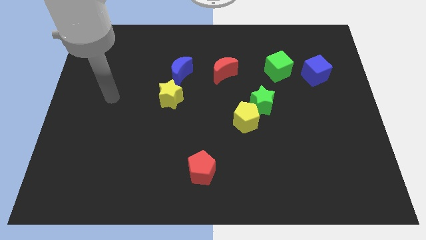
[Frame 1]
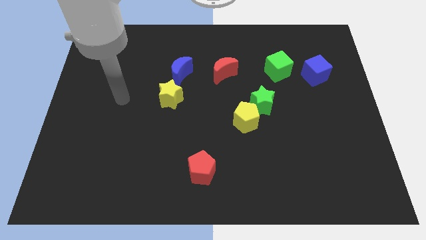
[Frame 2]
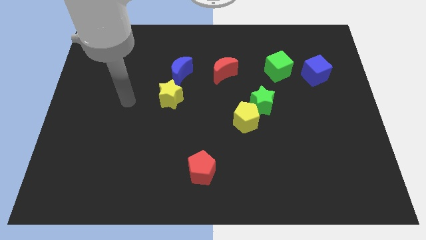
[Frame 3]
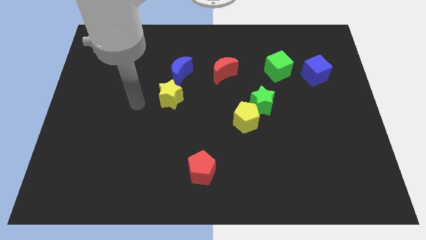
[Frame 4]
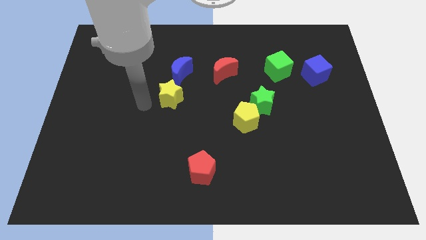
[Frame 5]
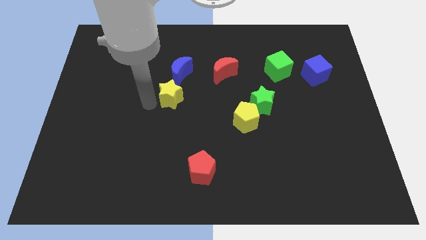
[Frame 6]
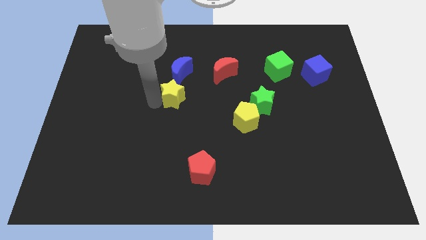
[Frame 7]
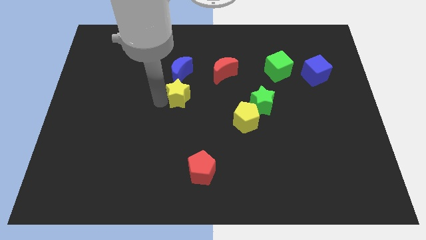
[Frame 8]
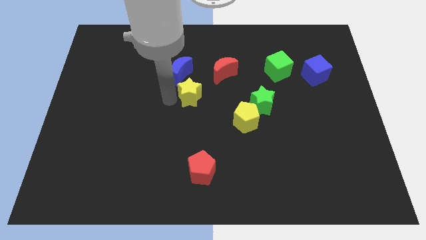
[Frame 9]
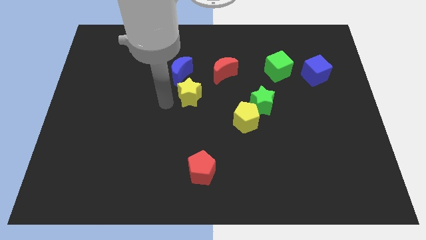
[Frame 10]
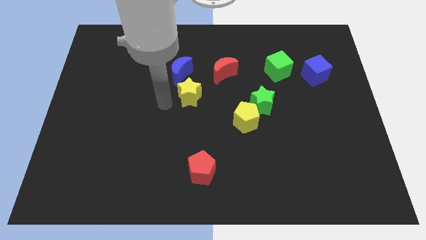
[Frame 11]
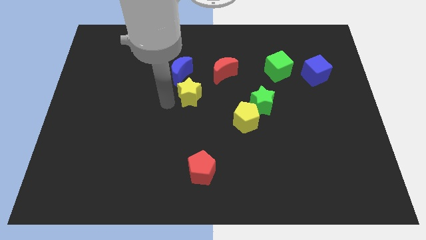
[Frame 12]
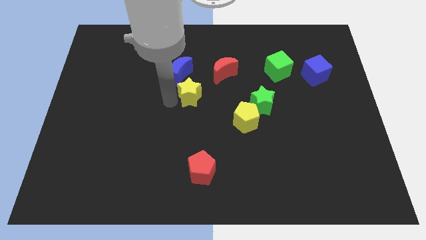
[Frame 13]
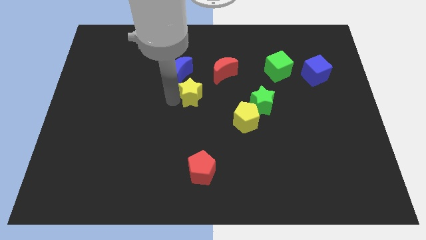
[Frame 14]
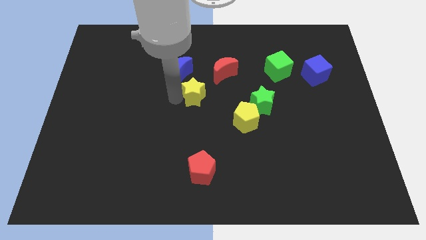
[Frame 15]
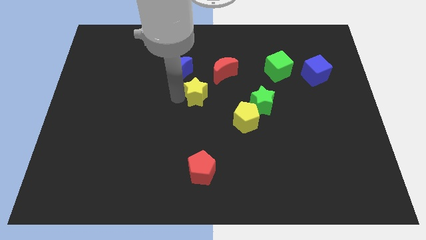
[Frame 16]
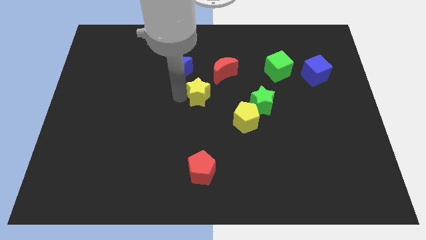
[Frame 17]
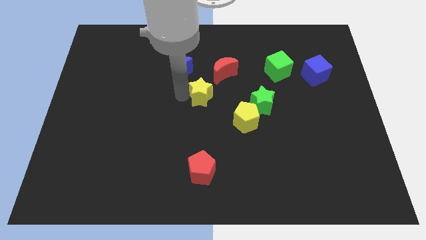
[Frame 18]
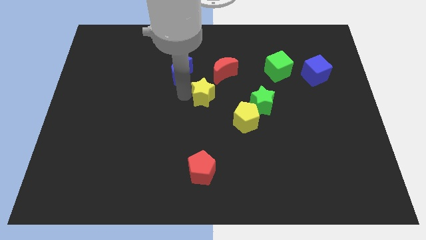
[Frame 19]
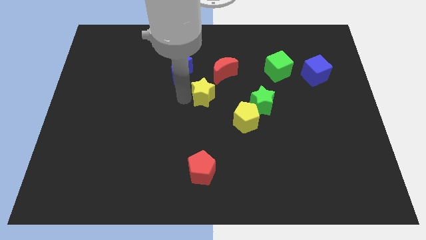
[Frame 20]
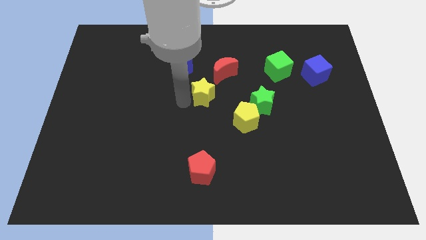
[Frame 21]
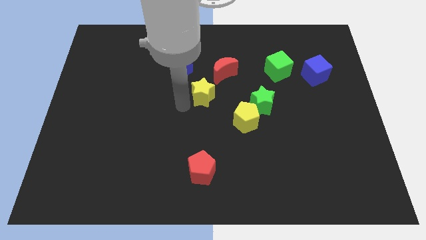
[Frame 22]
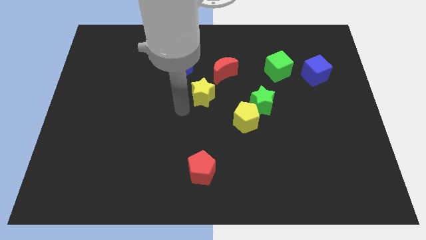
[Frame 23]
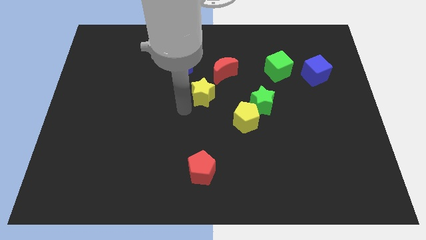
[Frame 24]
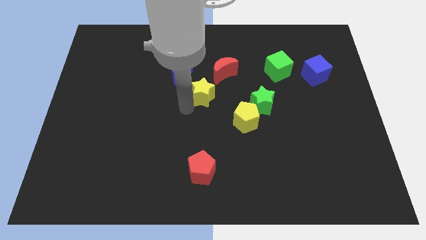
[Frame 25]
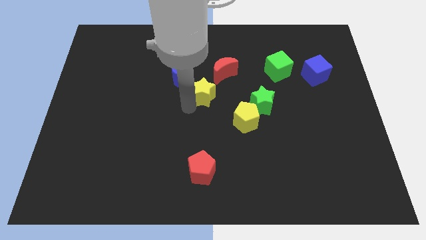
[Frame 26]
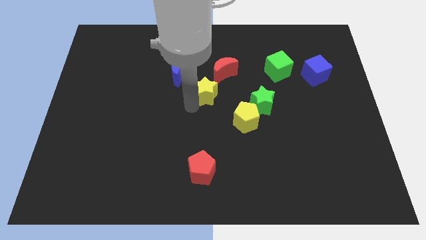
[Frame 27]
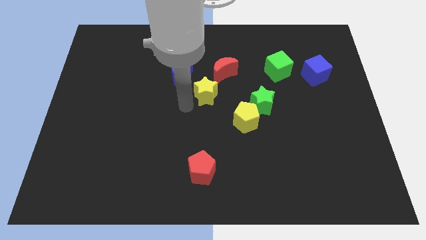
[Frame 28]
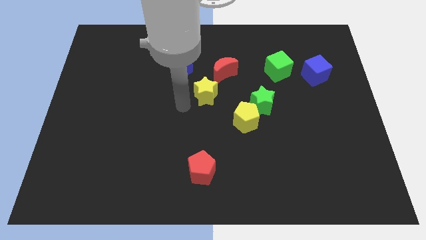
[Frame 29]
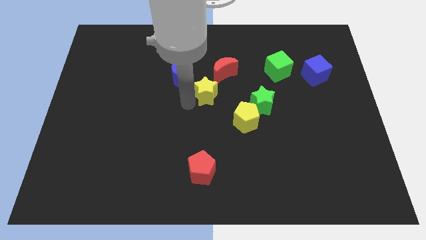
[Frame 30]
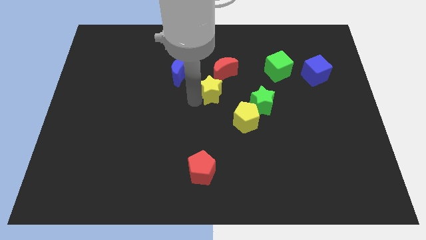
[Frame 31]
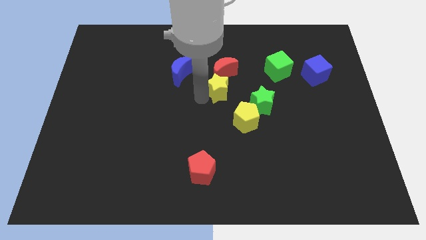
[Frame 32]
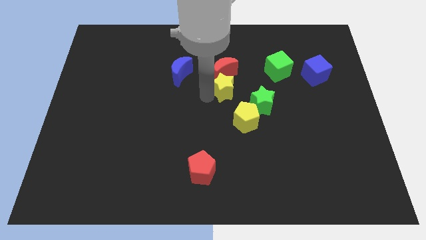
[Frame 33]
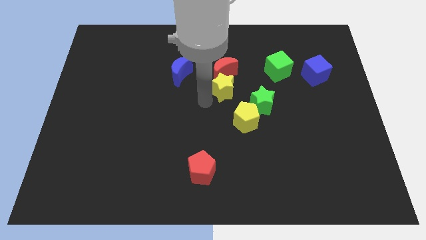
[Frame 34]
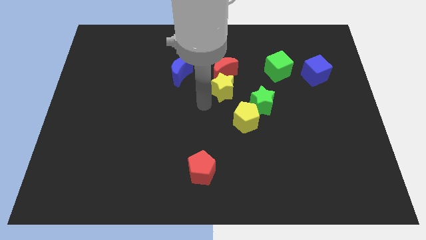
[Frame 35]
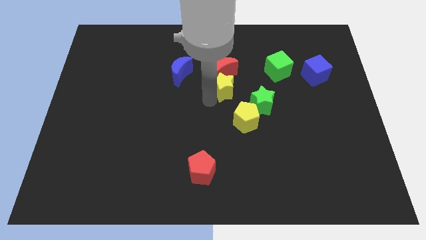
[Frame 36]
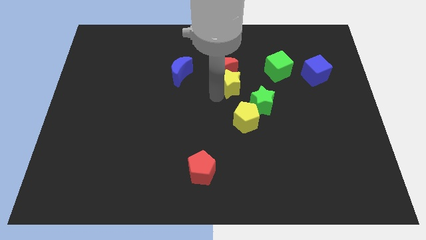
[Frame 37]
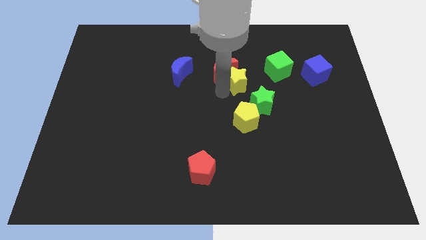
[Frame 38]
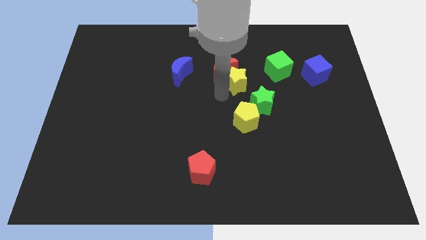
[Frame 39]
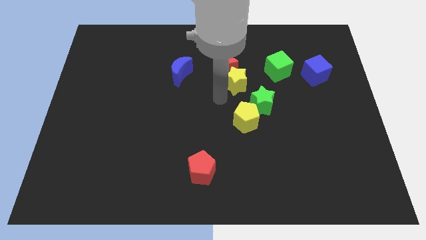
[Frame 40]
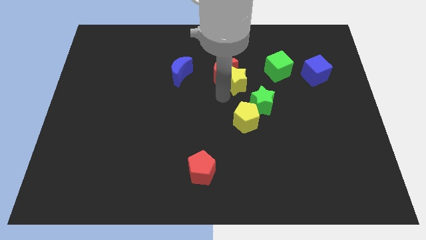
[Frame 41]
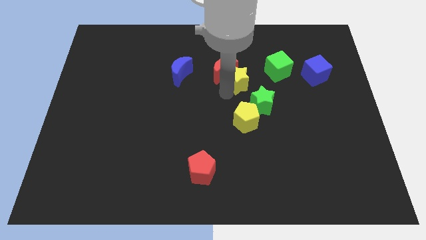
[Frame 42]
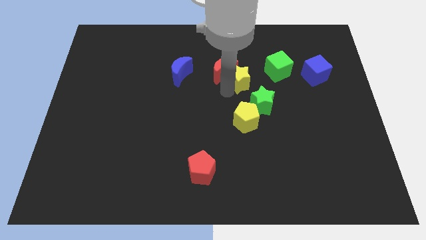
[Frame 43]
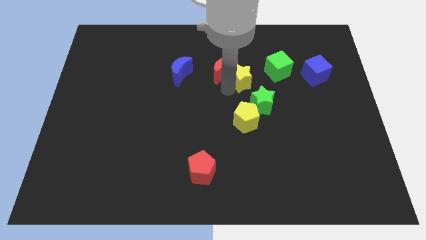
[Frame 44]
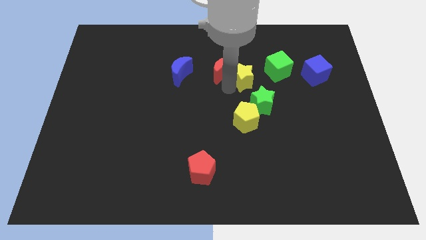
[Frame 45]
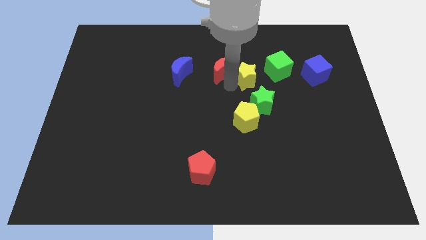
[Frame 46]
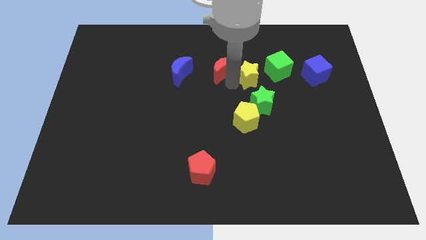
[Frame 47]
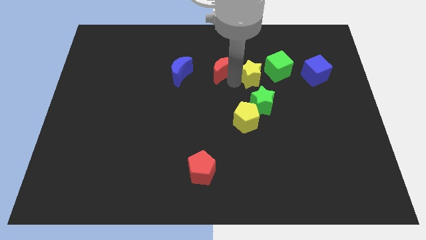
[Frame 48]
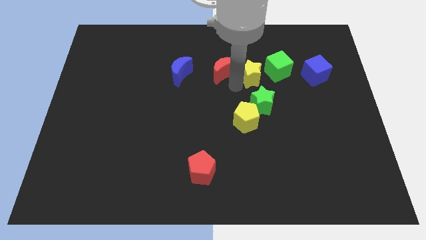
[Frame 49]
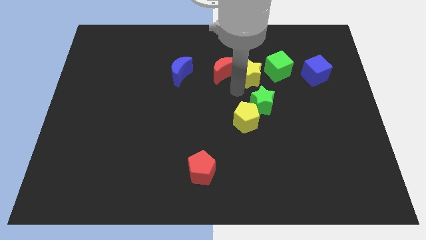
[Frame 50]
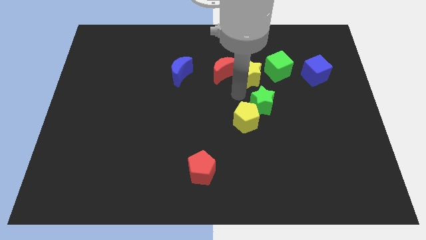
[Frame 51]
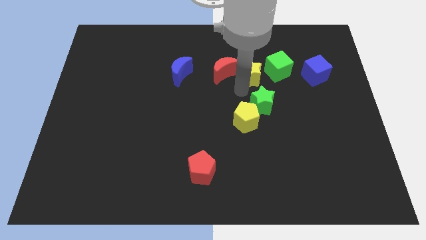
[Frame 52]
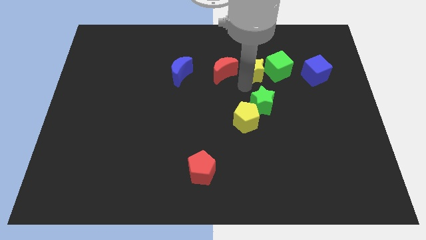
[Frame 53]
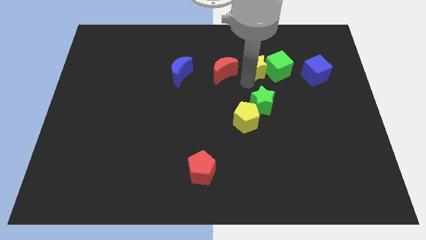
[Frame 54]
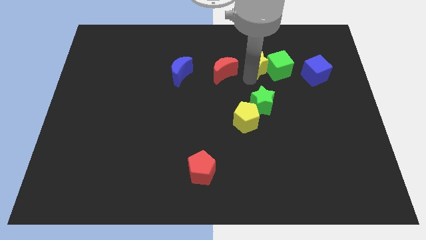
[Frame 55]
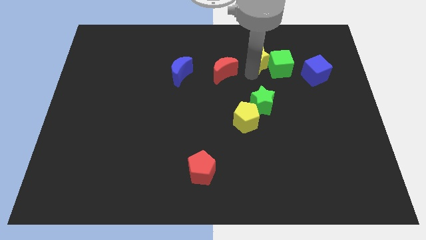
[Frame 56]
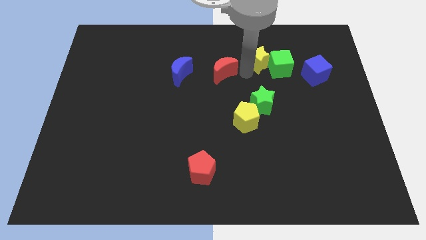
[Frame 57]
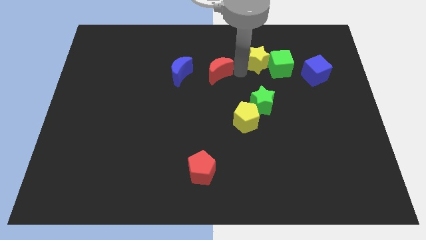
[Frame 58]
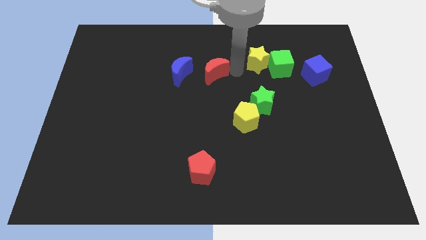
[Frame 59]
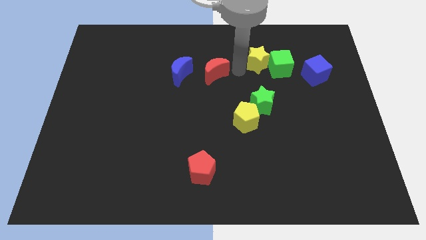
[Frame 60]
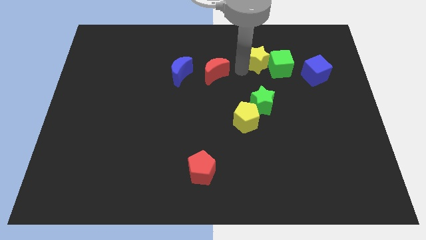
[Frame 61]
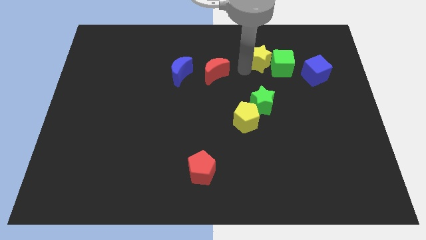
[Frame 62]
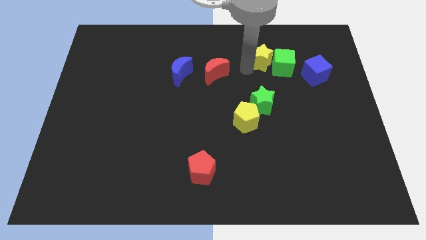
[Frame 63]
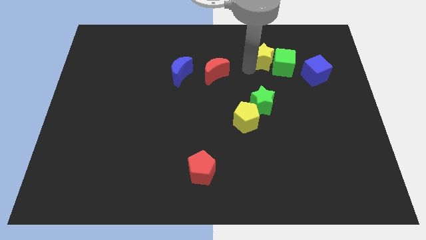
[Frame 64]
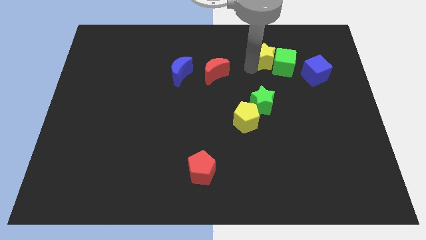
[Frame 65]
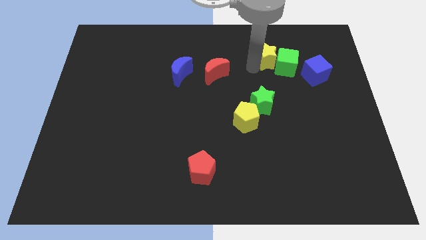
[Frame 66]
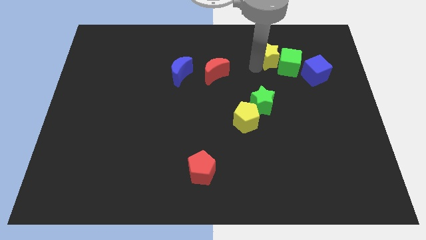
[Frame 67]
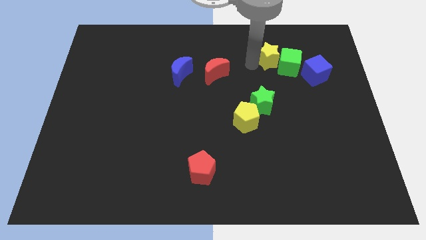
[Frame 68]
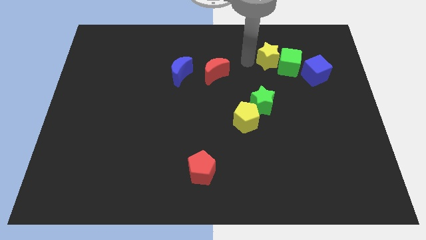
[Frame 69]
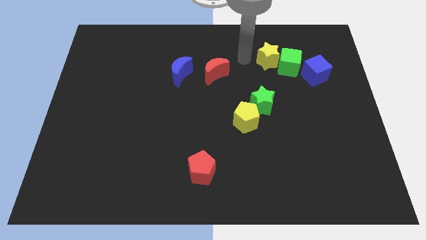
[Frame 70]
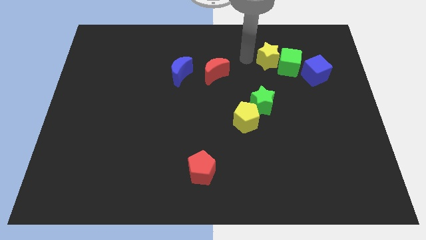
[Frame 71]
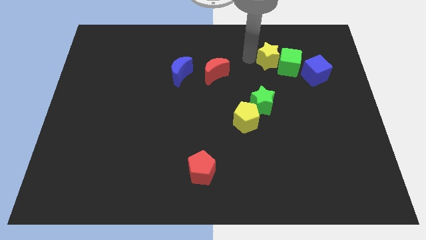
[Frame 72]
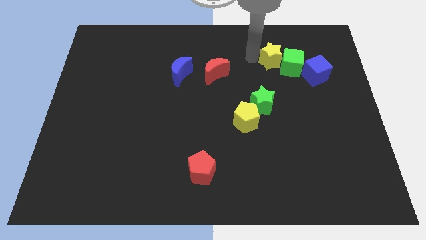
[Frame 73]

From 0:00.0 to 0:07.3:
put the yellow star to the top left of the blue cube

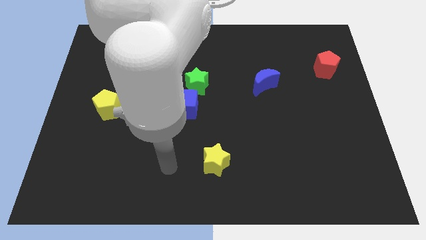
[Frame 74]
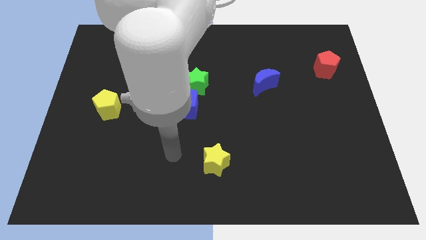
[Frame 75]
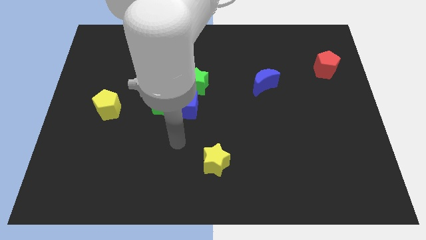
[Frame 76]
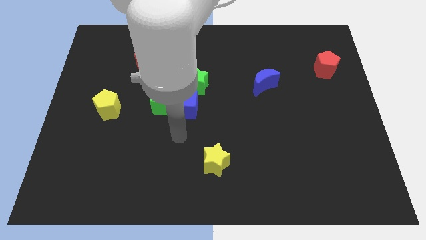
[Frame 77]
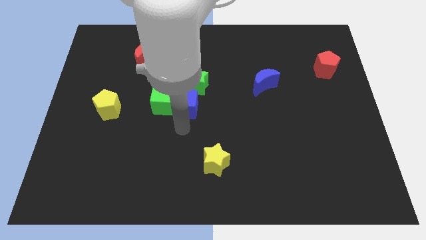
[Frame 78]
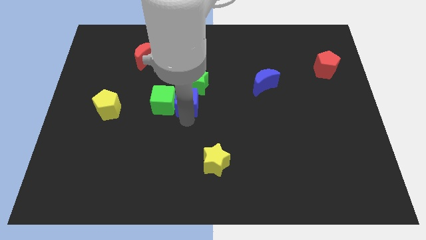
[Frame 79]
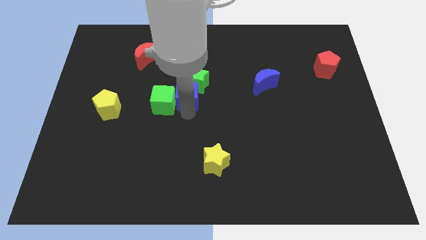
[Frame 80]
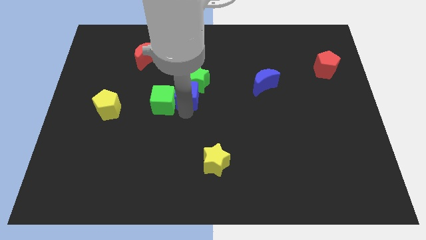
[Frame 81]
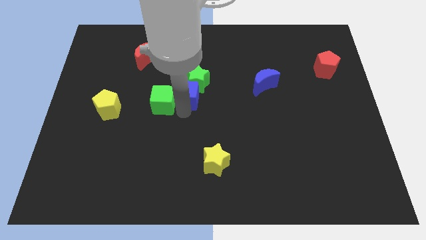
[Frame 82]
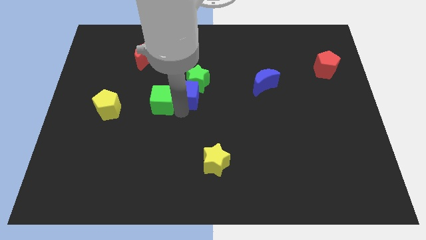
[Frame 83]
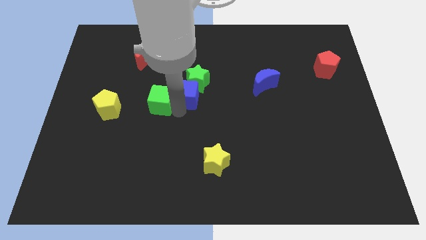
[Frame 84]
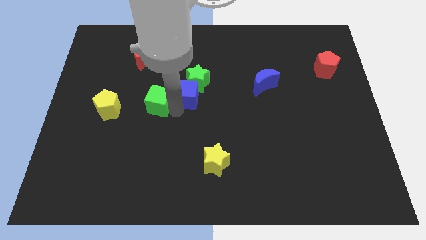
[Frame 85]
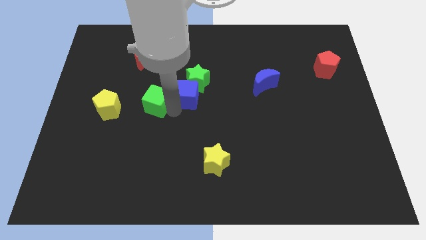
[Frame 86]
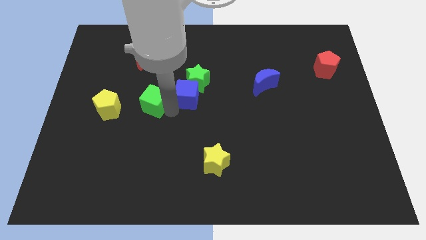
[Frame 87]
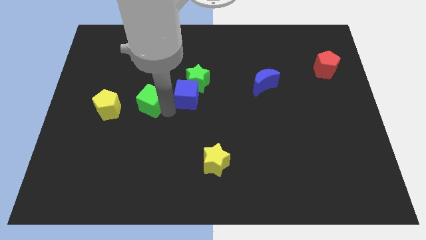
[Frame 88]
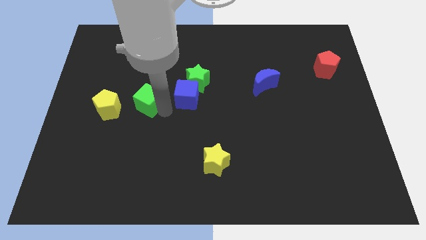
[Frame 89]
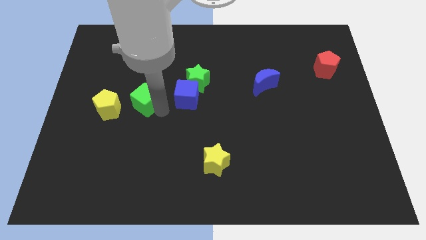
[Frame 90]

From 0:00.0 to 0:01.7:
put the green cube to the top right side of the yellow pentagon
